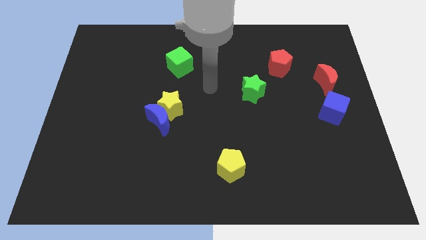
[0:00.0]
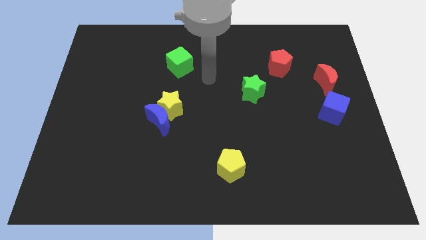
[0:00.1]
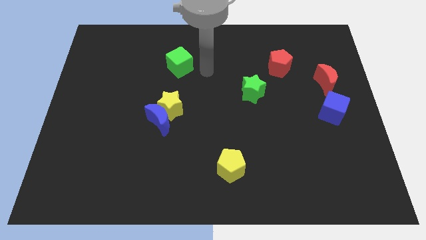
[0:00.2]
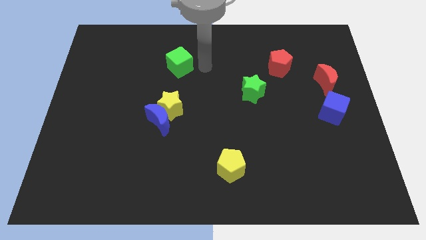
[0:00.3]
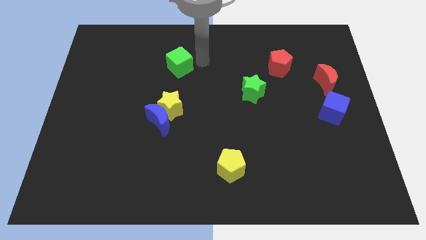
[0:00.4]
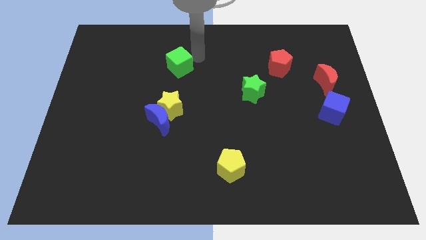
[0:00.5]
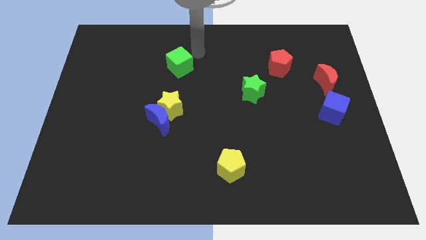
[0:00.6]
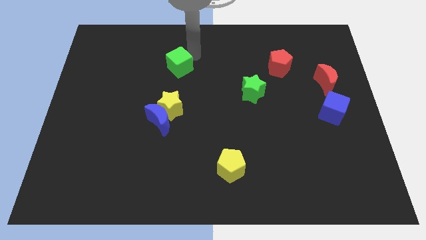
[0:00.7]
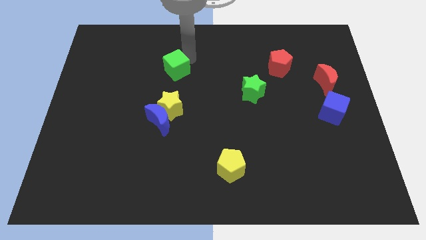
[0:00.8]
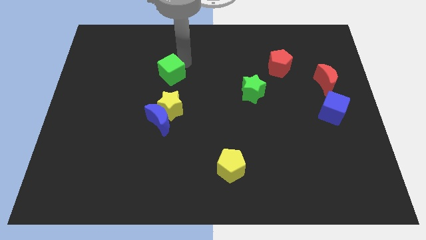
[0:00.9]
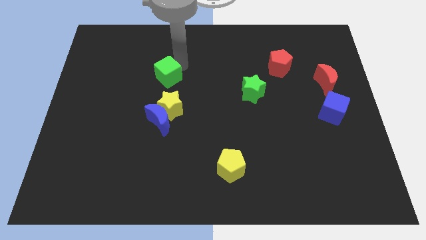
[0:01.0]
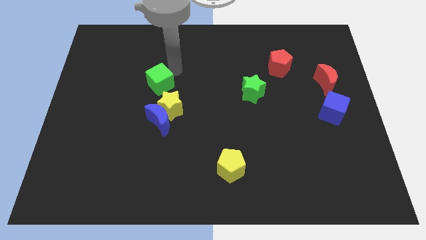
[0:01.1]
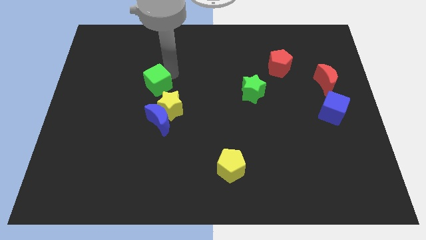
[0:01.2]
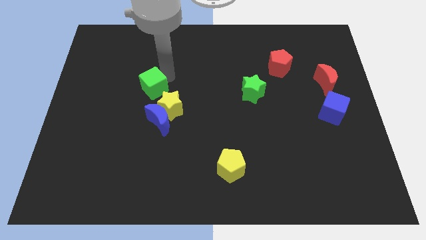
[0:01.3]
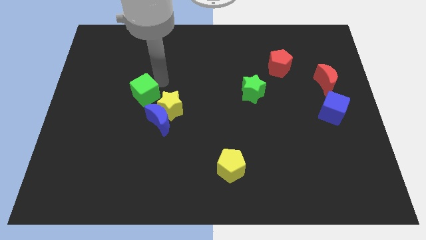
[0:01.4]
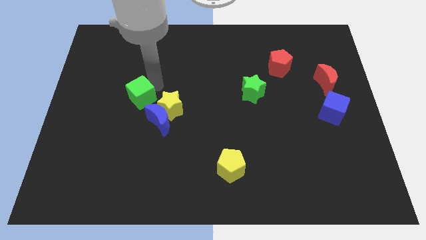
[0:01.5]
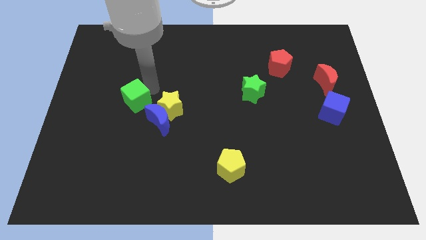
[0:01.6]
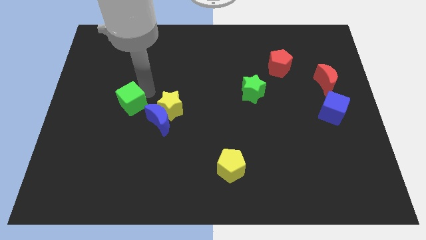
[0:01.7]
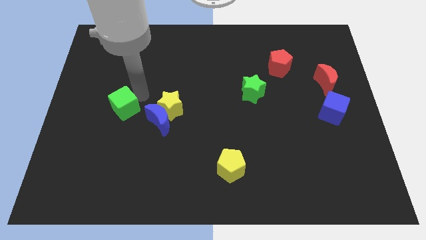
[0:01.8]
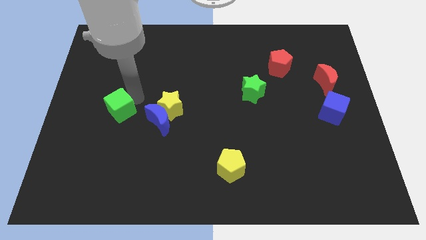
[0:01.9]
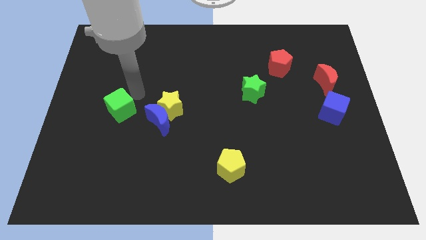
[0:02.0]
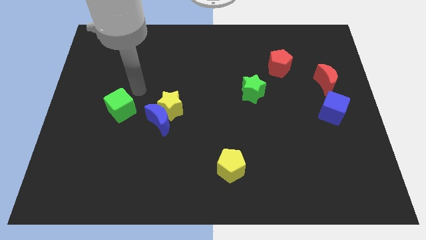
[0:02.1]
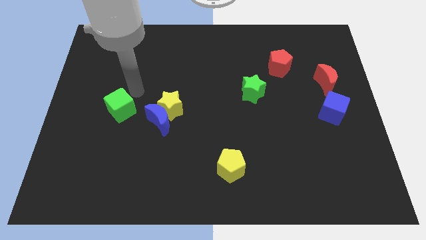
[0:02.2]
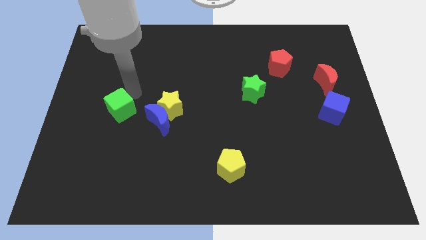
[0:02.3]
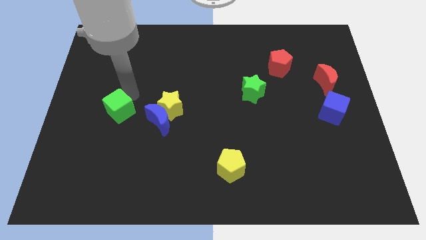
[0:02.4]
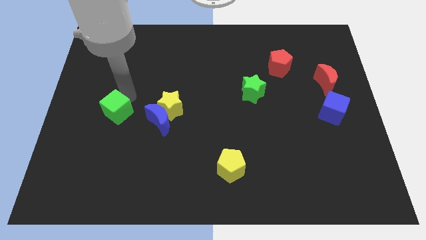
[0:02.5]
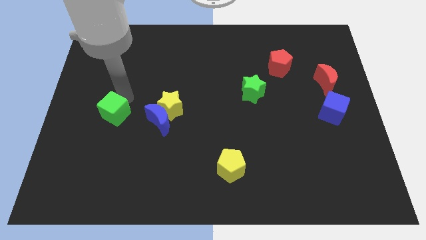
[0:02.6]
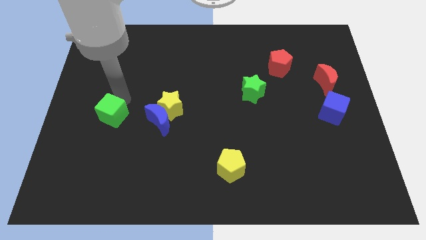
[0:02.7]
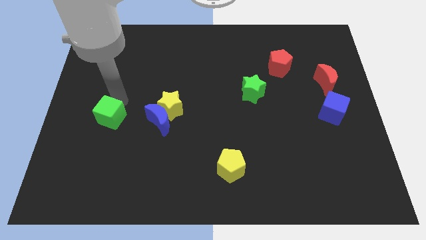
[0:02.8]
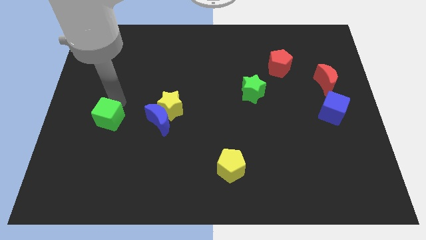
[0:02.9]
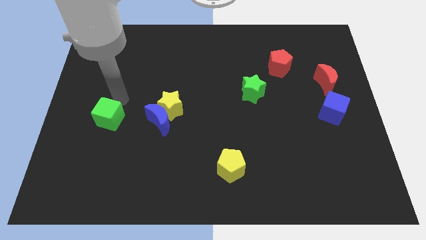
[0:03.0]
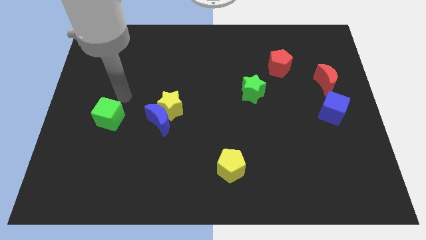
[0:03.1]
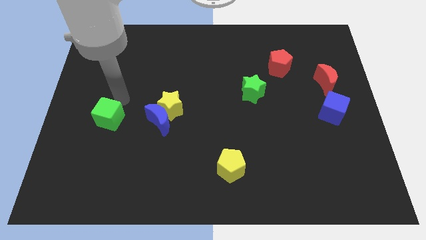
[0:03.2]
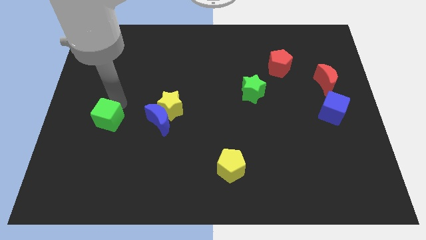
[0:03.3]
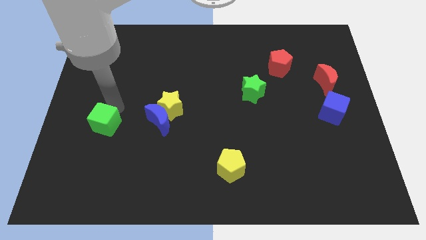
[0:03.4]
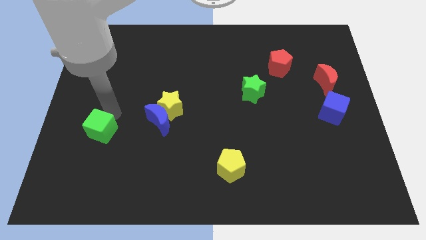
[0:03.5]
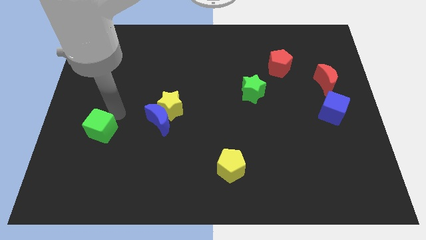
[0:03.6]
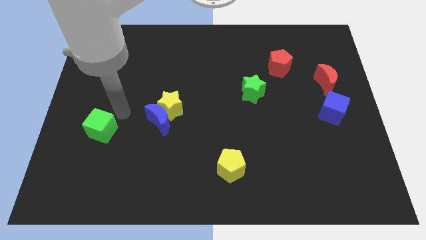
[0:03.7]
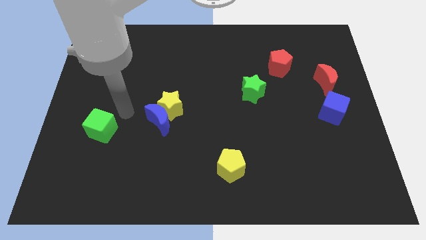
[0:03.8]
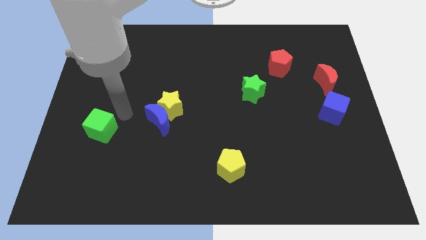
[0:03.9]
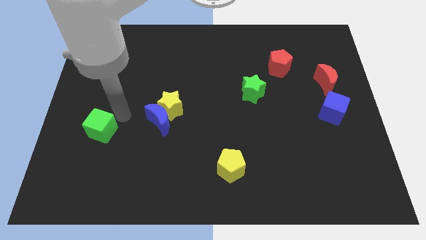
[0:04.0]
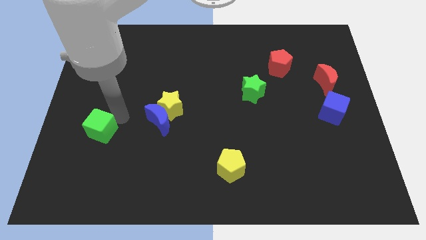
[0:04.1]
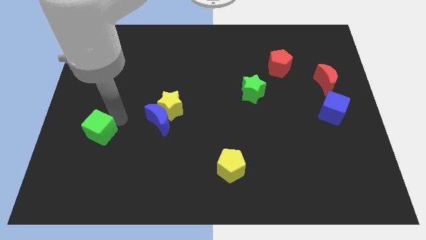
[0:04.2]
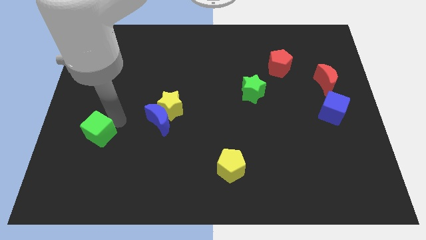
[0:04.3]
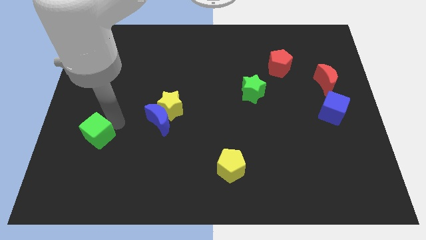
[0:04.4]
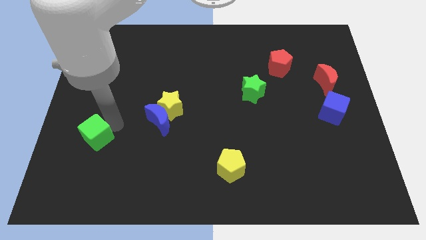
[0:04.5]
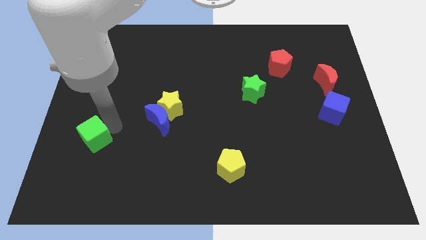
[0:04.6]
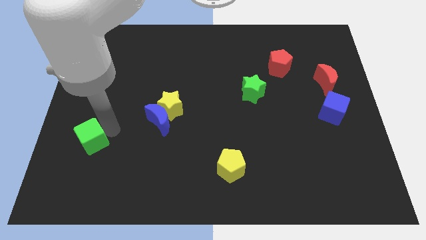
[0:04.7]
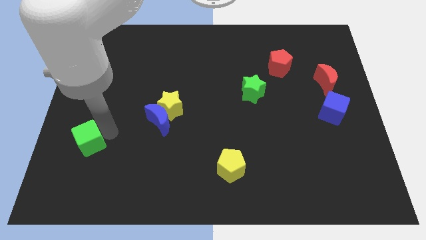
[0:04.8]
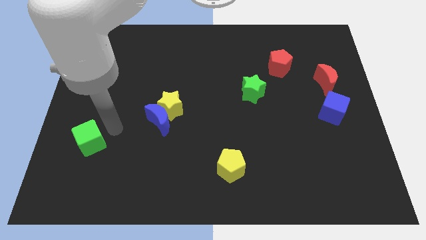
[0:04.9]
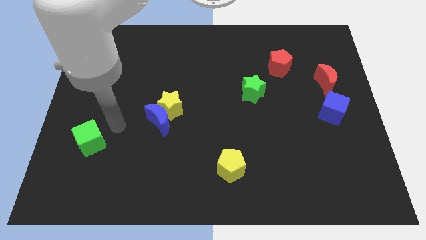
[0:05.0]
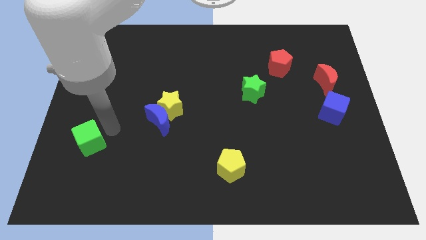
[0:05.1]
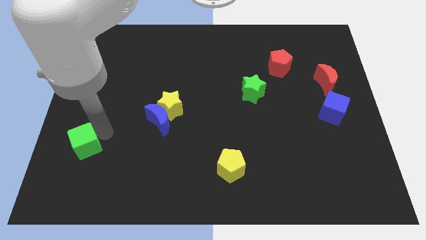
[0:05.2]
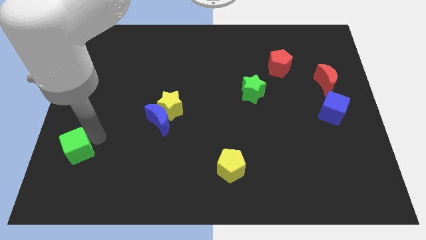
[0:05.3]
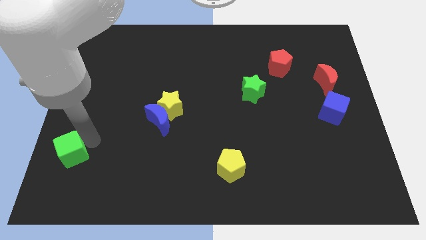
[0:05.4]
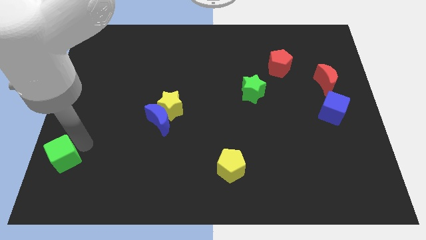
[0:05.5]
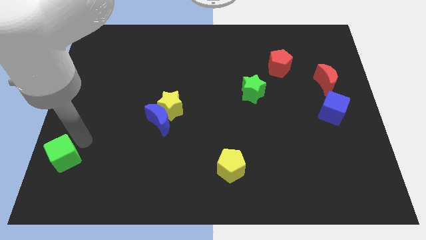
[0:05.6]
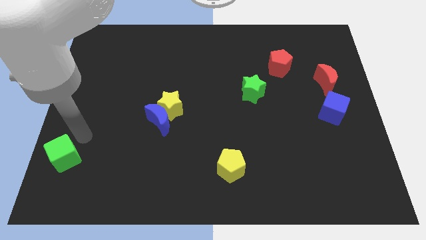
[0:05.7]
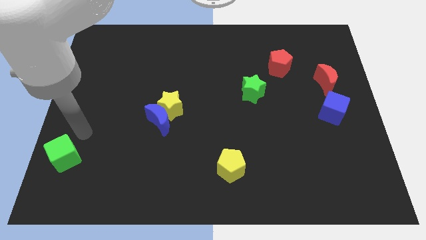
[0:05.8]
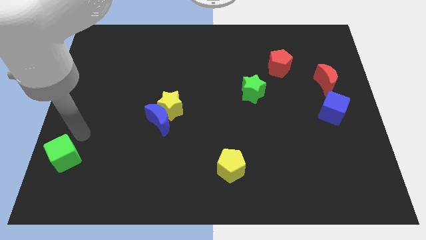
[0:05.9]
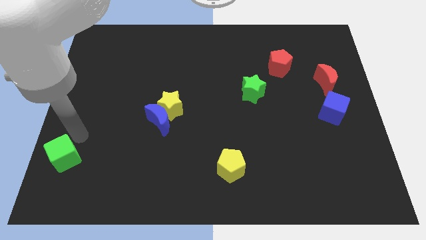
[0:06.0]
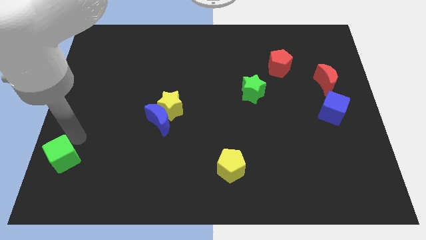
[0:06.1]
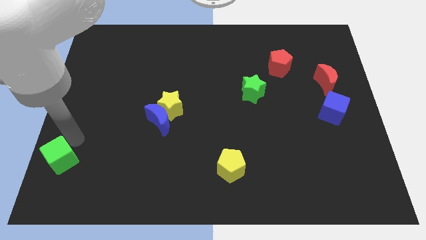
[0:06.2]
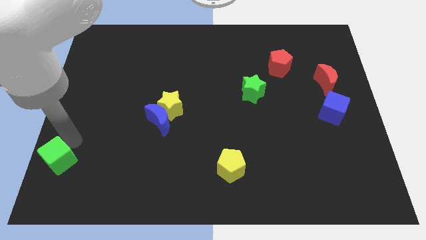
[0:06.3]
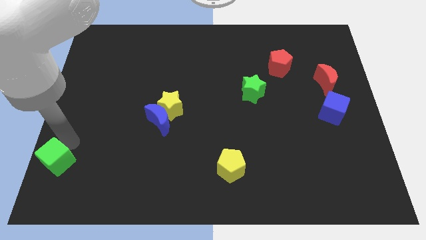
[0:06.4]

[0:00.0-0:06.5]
push the green cube to the bottom left of the board
